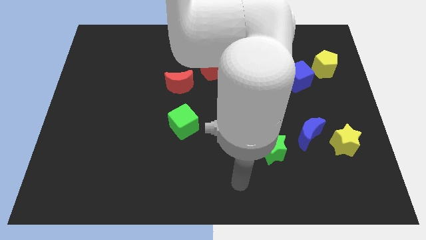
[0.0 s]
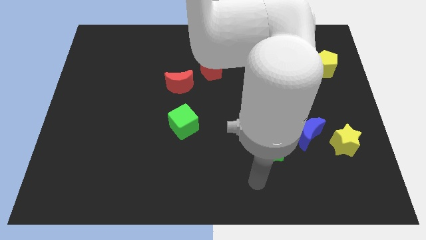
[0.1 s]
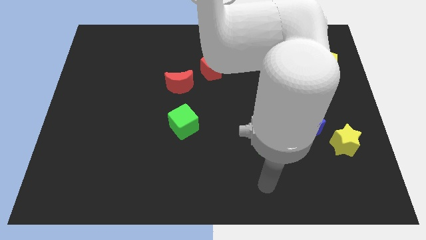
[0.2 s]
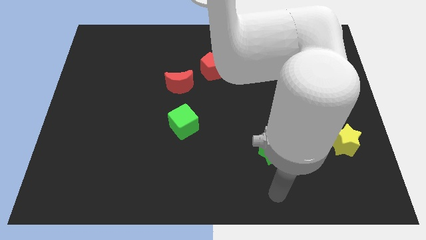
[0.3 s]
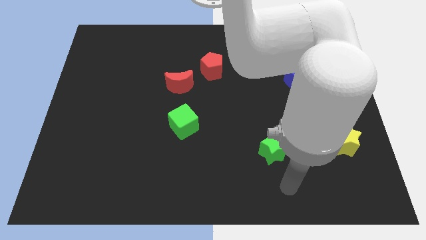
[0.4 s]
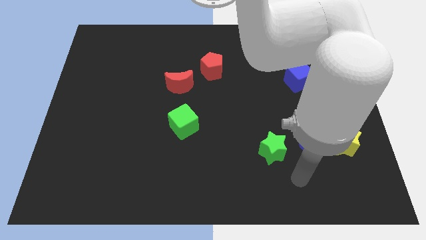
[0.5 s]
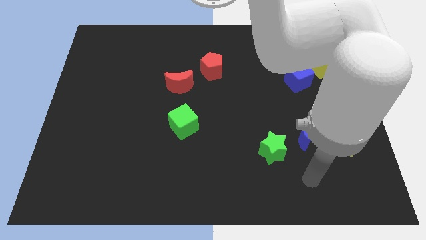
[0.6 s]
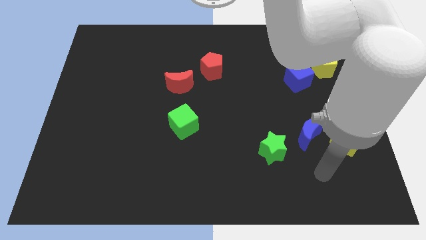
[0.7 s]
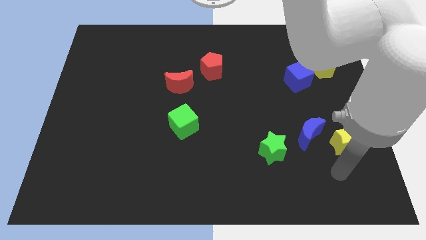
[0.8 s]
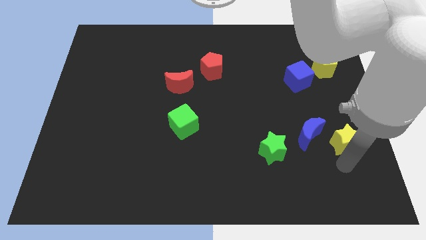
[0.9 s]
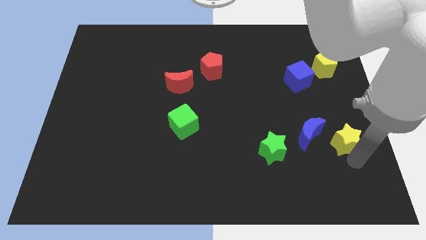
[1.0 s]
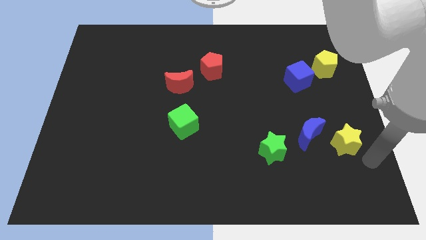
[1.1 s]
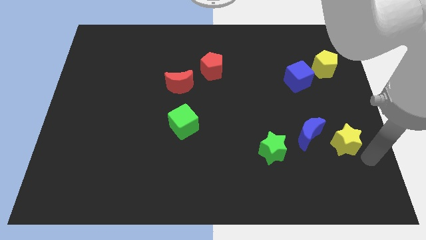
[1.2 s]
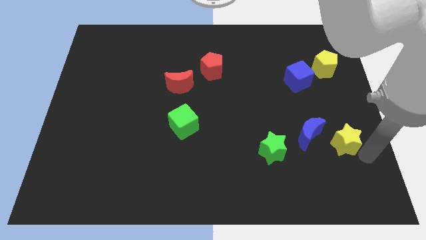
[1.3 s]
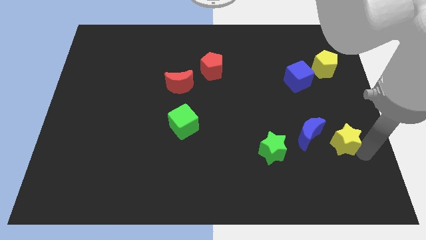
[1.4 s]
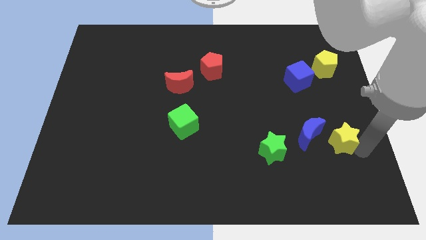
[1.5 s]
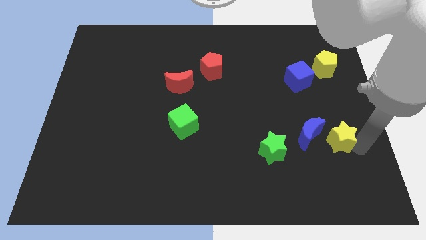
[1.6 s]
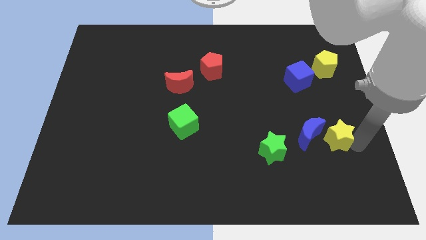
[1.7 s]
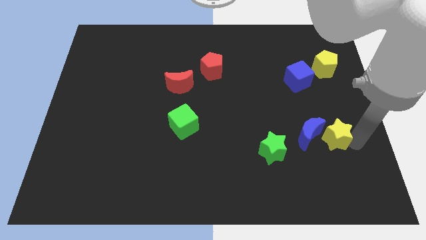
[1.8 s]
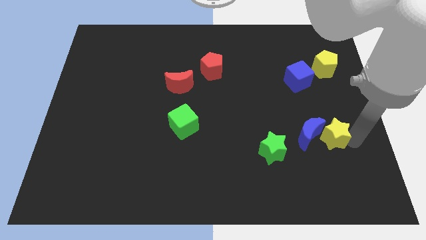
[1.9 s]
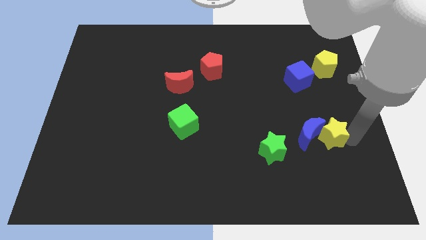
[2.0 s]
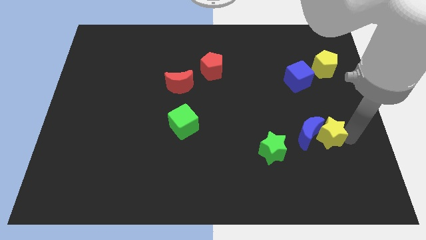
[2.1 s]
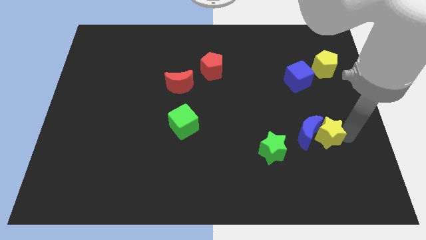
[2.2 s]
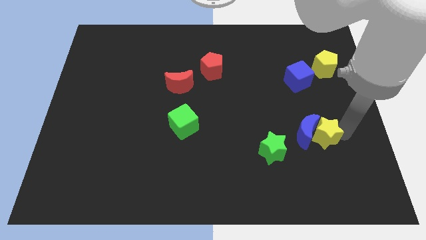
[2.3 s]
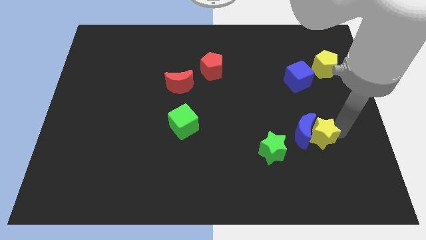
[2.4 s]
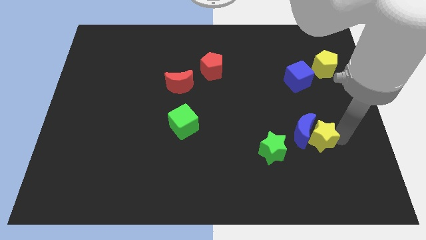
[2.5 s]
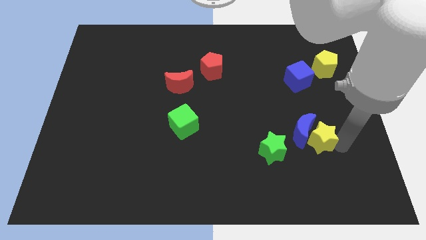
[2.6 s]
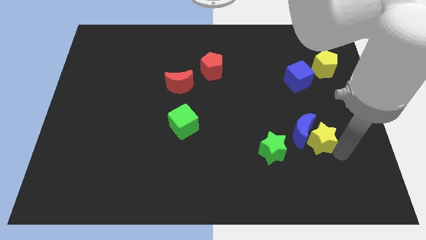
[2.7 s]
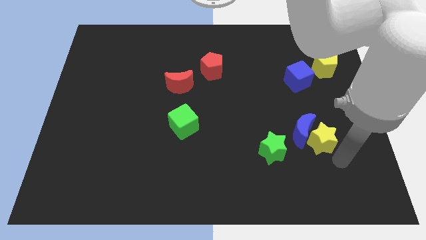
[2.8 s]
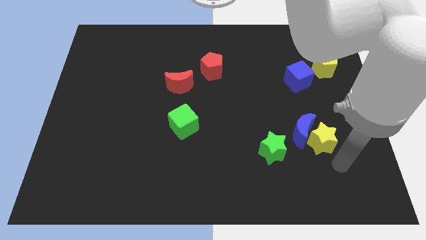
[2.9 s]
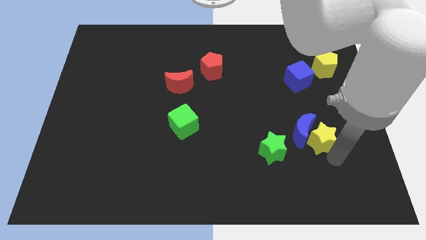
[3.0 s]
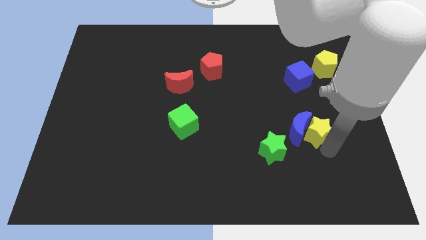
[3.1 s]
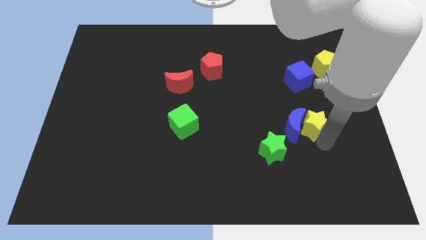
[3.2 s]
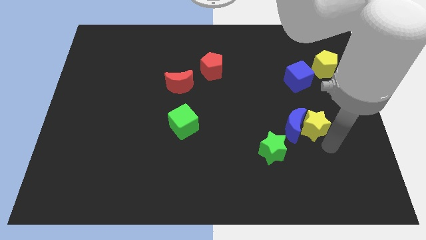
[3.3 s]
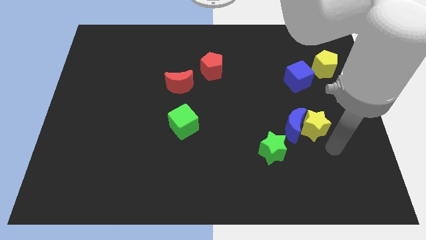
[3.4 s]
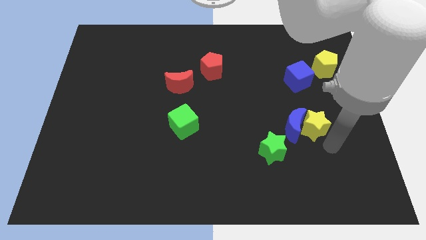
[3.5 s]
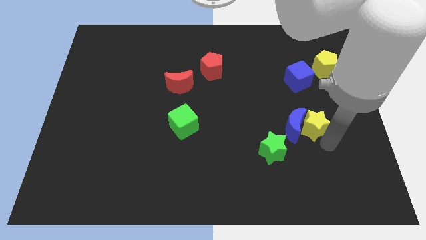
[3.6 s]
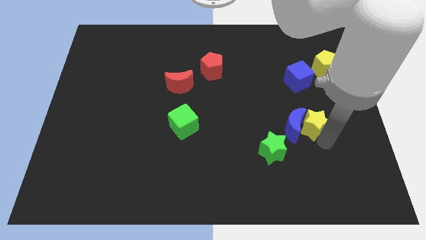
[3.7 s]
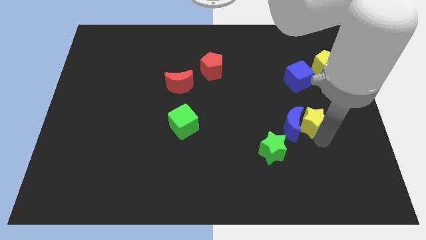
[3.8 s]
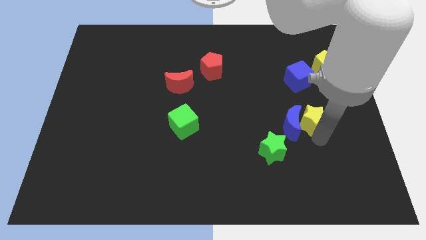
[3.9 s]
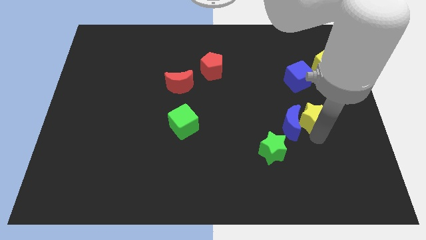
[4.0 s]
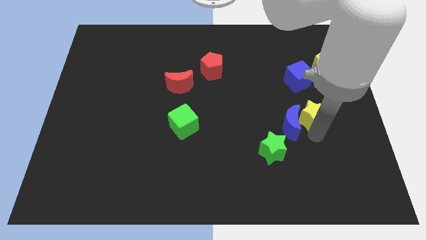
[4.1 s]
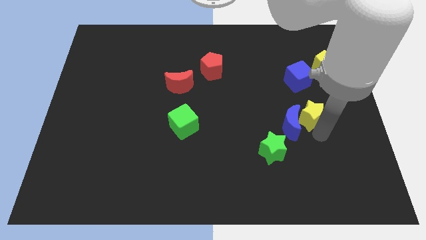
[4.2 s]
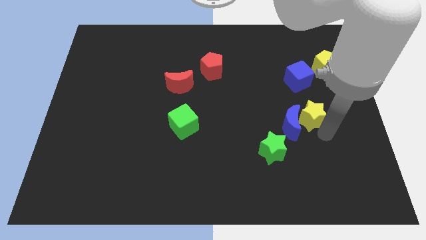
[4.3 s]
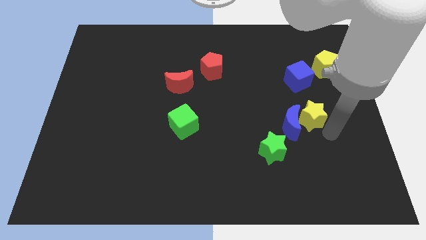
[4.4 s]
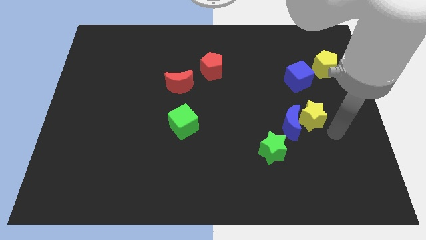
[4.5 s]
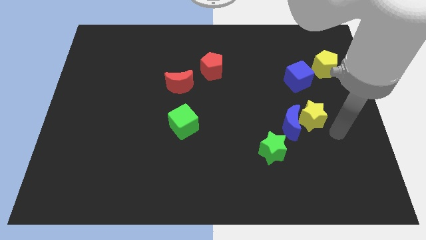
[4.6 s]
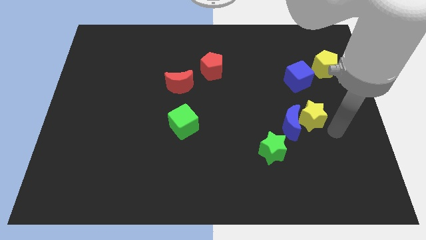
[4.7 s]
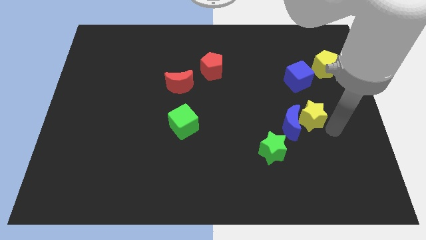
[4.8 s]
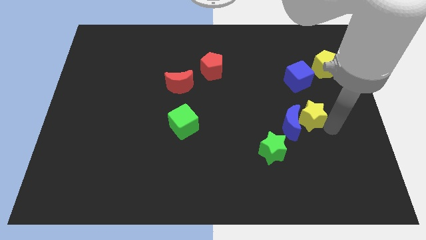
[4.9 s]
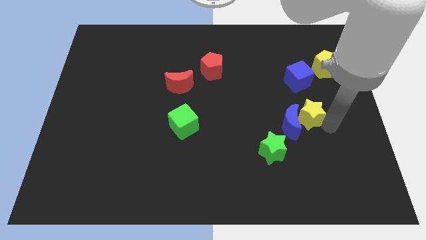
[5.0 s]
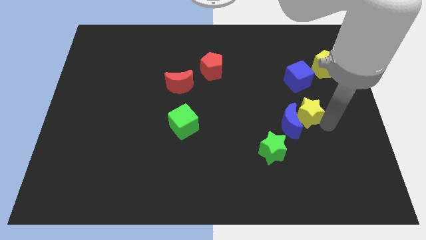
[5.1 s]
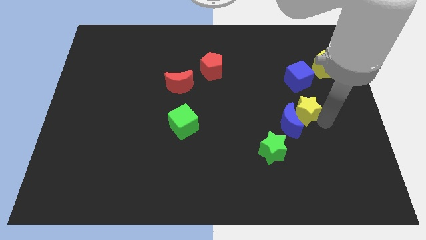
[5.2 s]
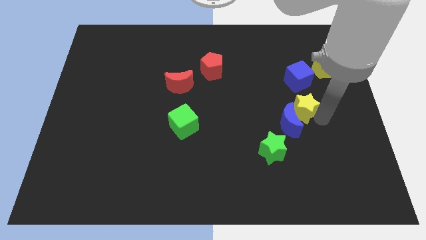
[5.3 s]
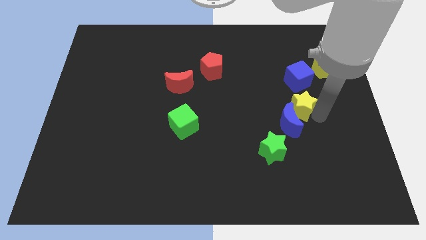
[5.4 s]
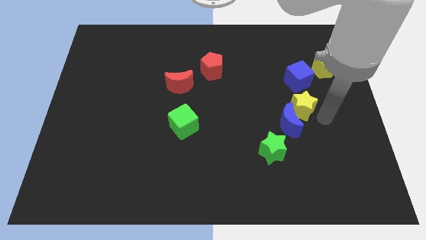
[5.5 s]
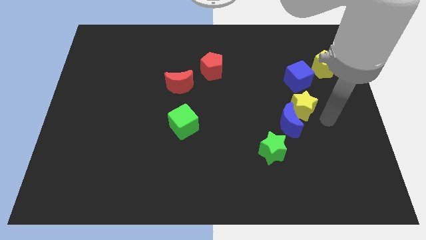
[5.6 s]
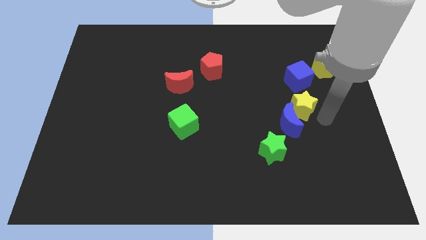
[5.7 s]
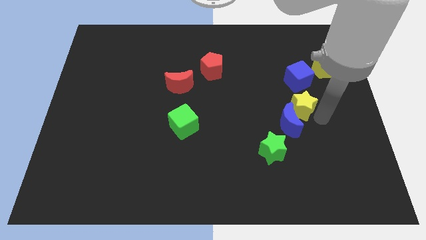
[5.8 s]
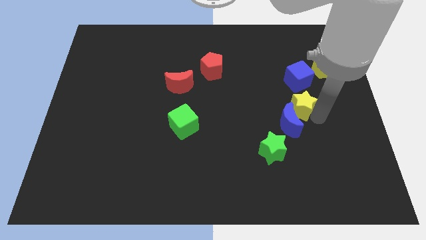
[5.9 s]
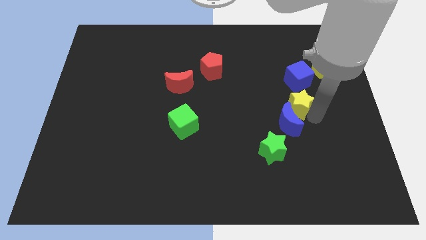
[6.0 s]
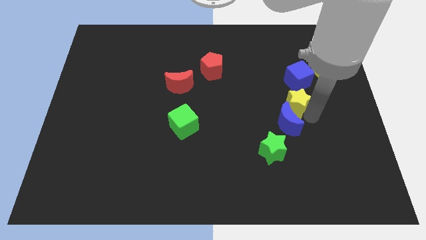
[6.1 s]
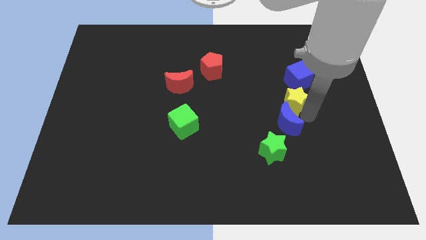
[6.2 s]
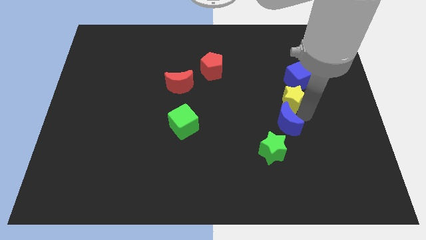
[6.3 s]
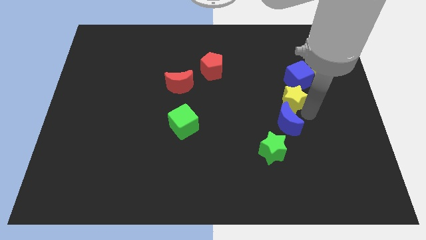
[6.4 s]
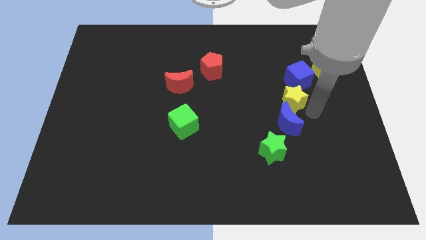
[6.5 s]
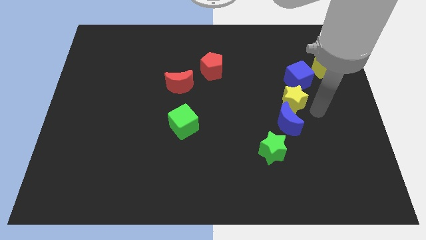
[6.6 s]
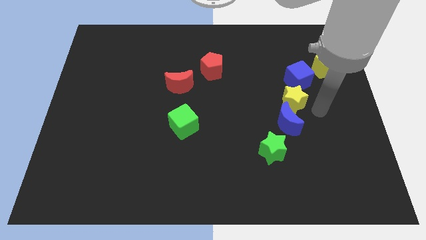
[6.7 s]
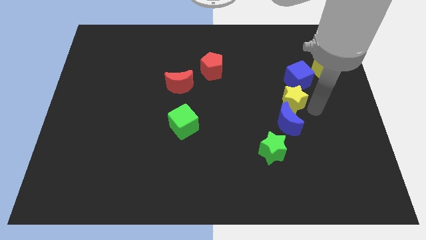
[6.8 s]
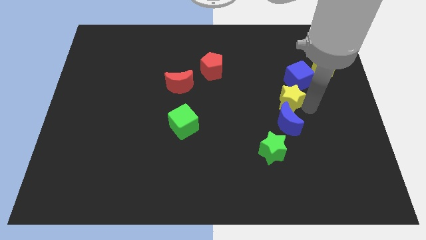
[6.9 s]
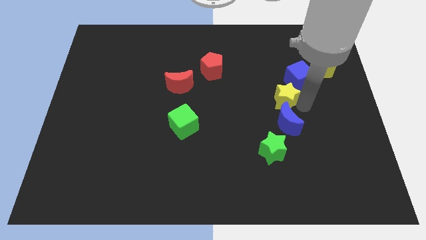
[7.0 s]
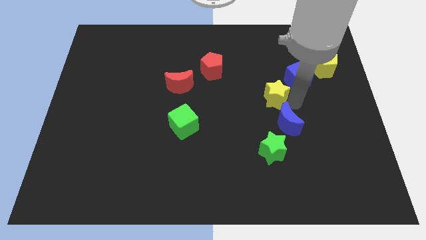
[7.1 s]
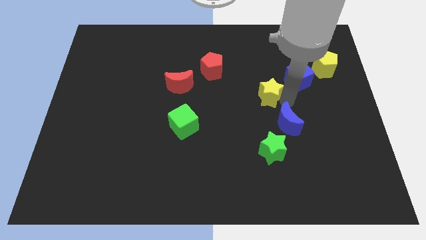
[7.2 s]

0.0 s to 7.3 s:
move the yellow star diagonally upwards and to the left

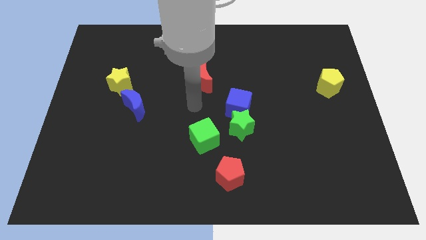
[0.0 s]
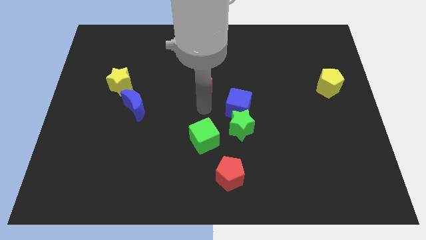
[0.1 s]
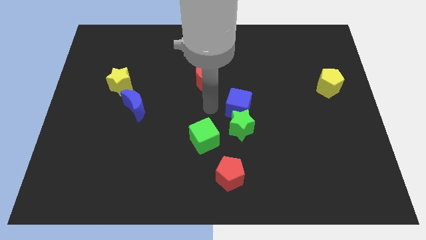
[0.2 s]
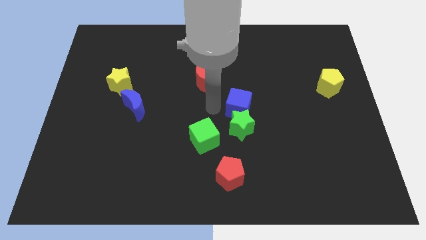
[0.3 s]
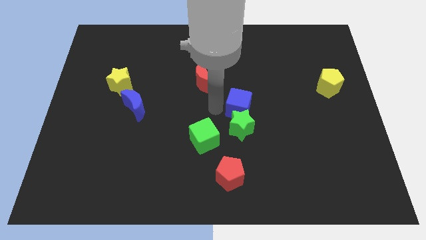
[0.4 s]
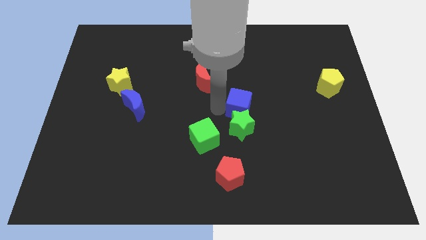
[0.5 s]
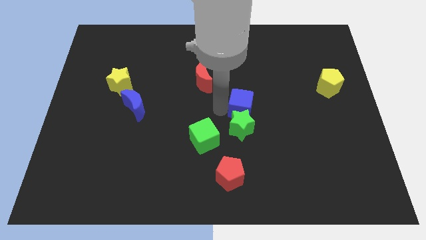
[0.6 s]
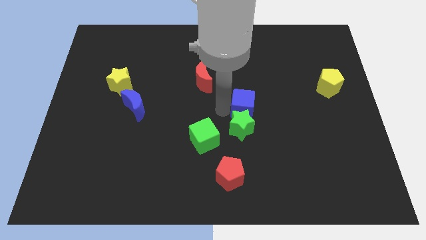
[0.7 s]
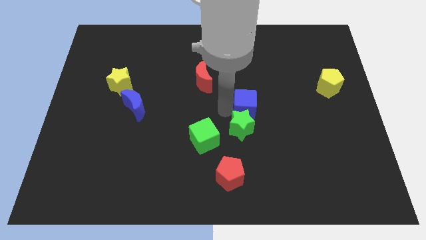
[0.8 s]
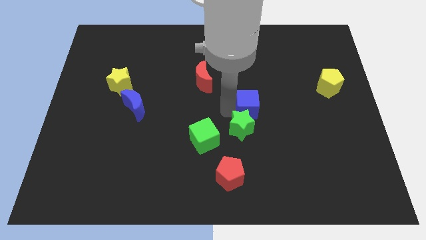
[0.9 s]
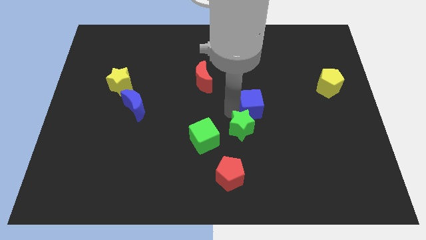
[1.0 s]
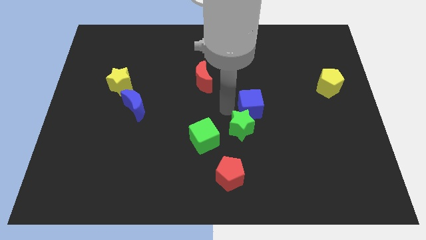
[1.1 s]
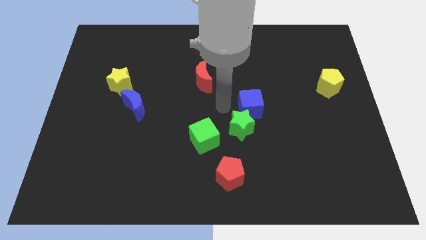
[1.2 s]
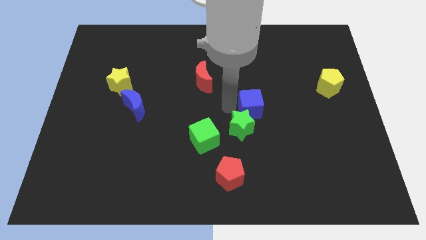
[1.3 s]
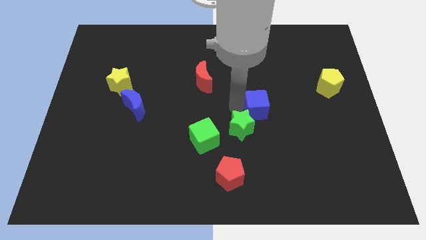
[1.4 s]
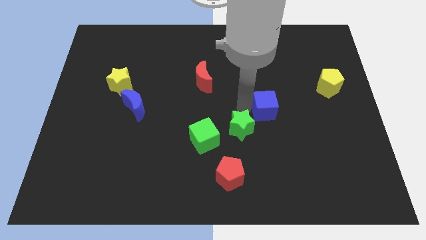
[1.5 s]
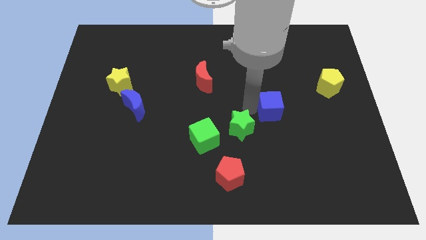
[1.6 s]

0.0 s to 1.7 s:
slightly move the blue cube to the right
